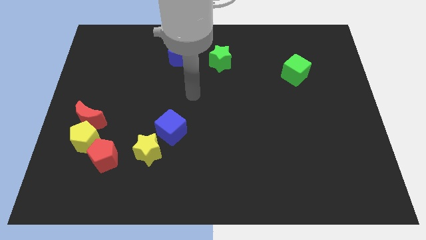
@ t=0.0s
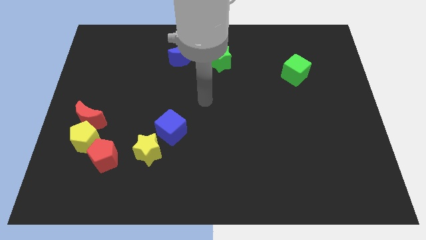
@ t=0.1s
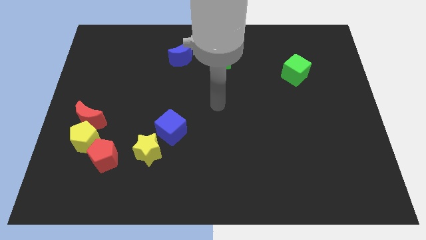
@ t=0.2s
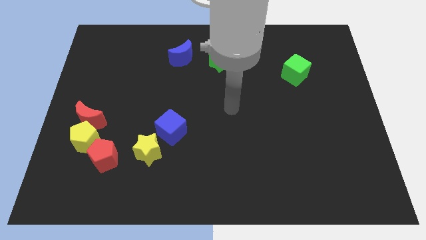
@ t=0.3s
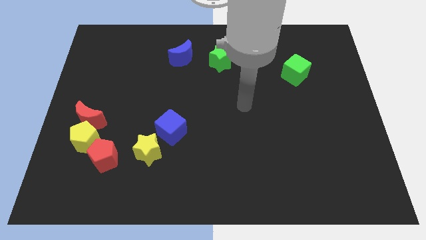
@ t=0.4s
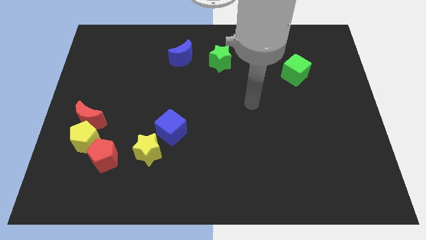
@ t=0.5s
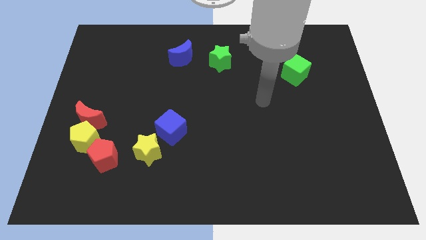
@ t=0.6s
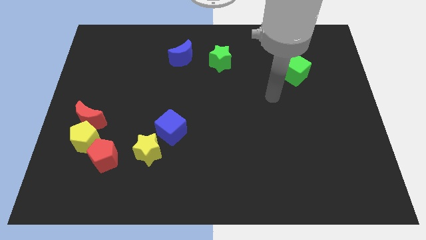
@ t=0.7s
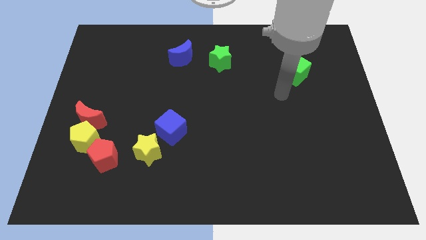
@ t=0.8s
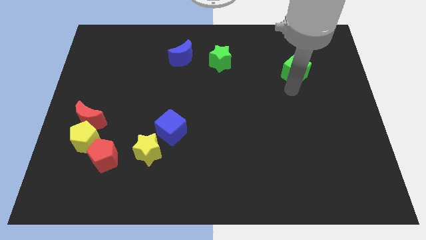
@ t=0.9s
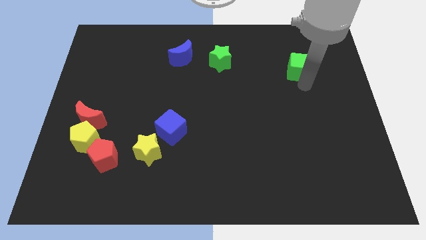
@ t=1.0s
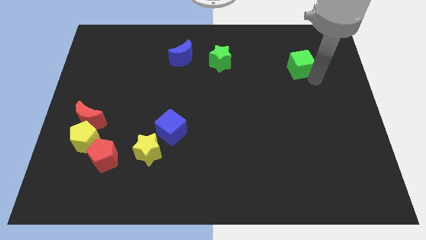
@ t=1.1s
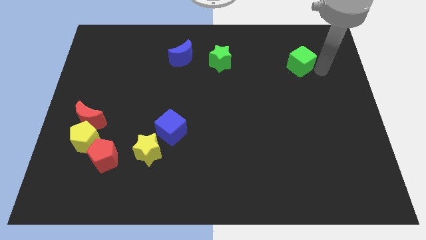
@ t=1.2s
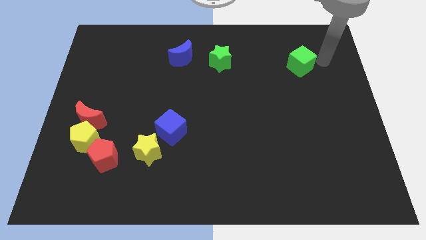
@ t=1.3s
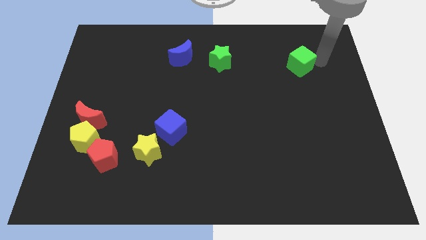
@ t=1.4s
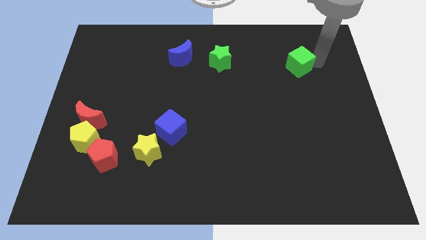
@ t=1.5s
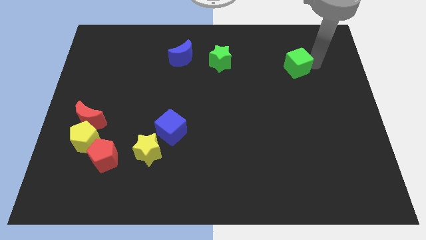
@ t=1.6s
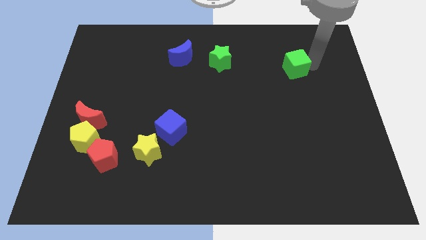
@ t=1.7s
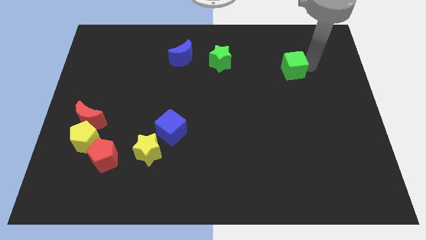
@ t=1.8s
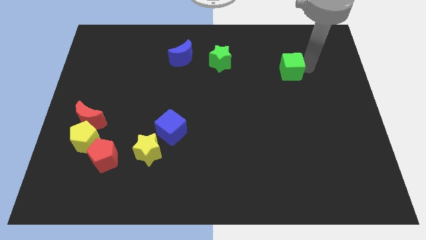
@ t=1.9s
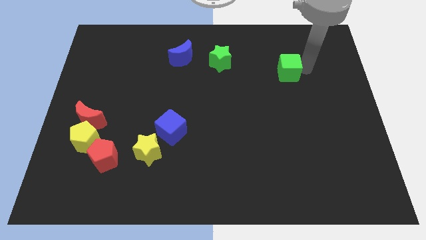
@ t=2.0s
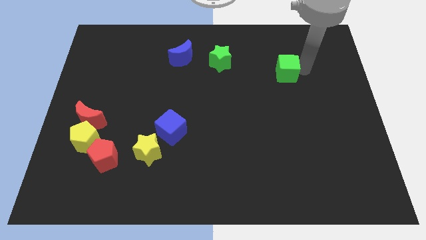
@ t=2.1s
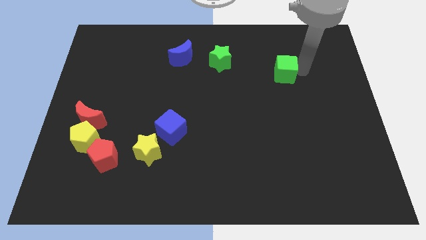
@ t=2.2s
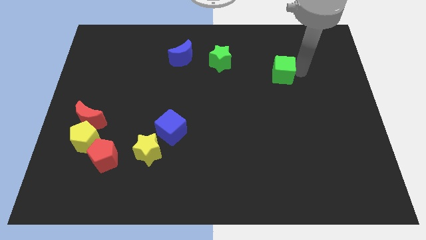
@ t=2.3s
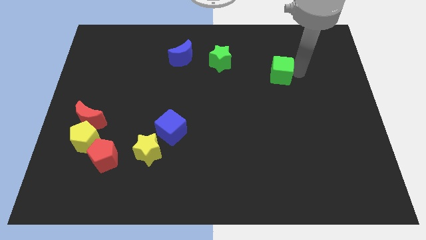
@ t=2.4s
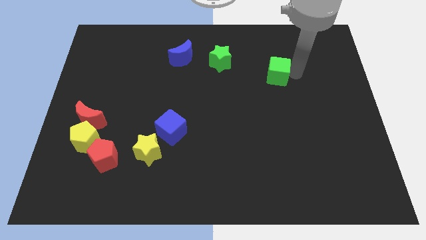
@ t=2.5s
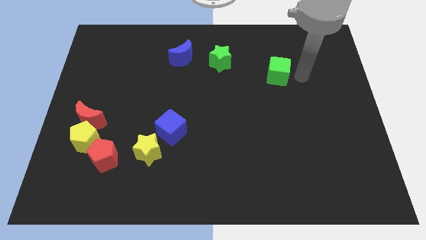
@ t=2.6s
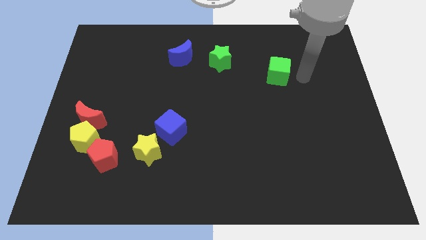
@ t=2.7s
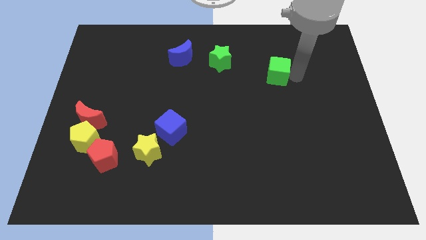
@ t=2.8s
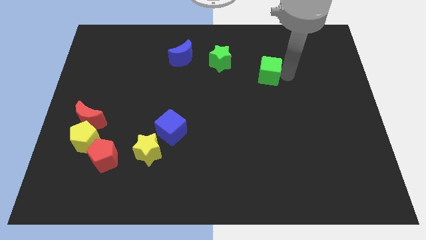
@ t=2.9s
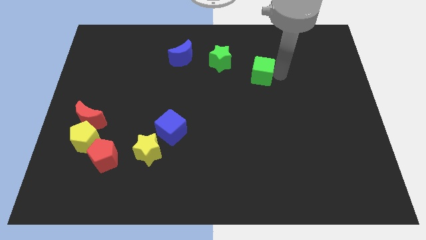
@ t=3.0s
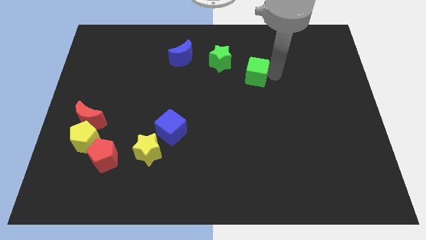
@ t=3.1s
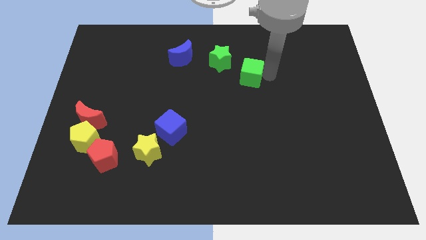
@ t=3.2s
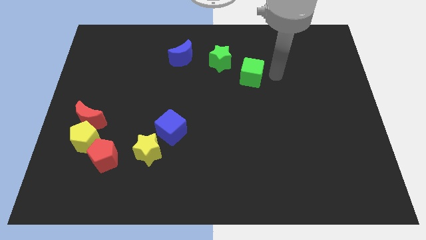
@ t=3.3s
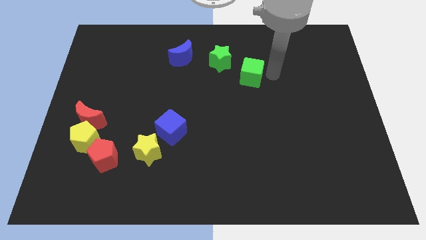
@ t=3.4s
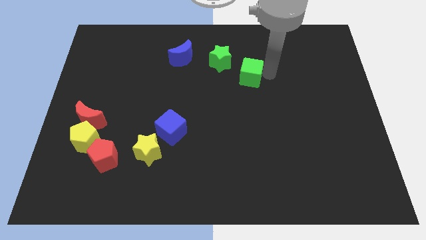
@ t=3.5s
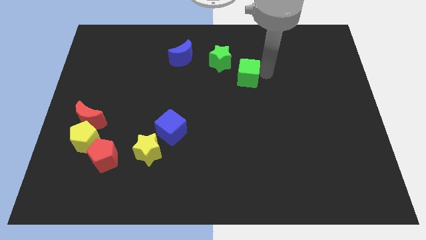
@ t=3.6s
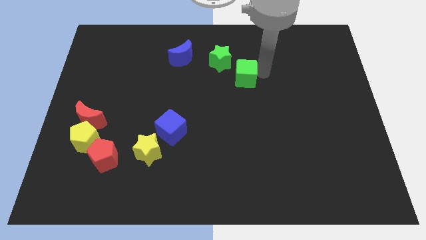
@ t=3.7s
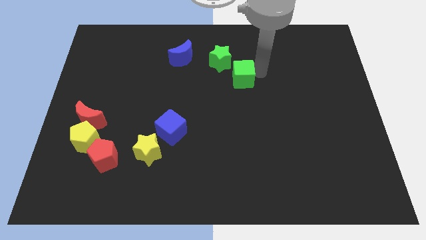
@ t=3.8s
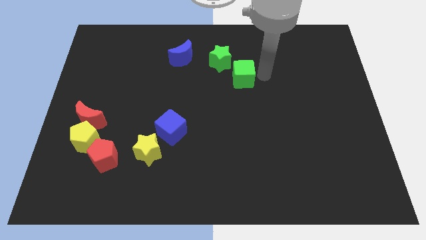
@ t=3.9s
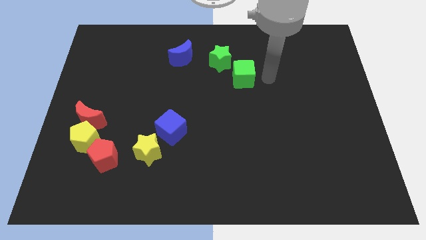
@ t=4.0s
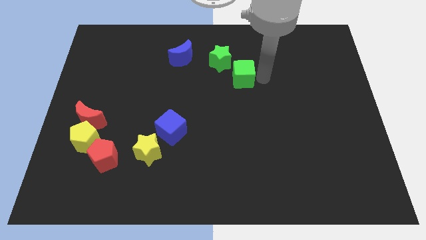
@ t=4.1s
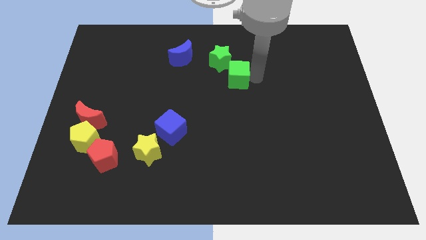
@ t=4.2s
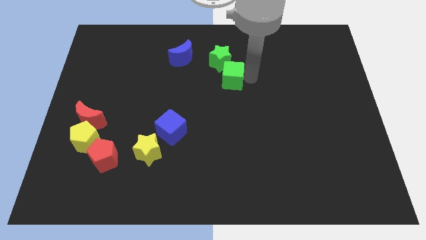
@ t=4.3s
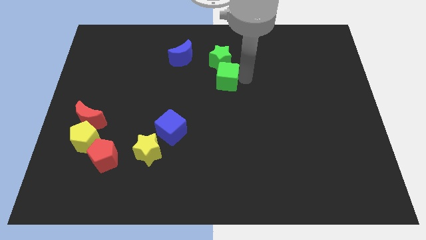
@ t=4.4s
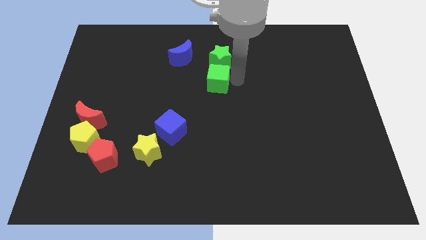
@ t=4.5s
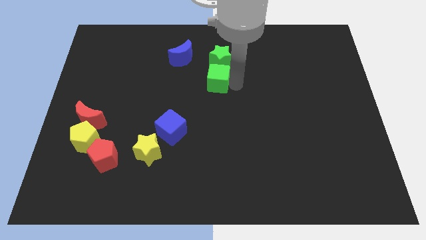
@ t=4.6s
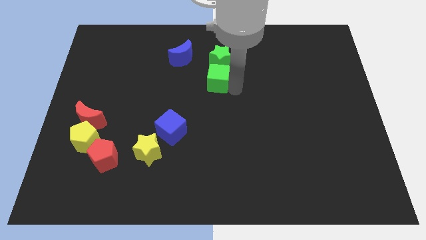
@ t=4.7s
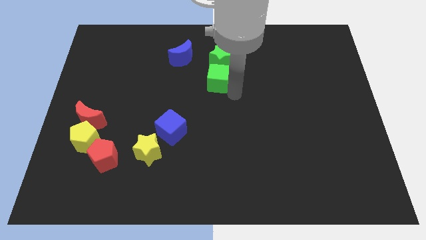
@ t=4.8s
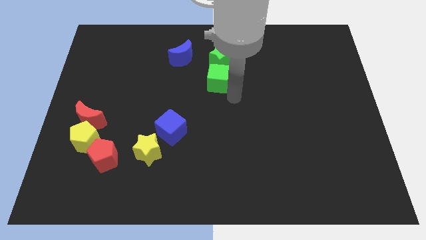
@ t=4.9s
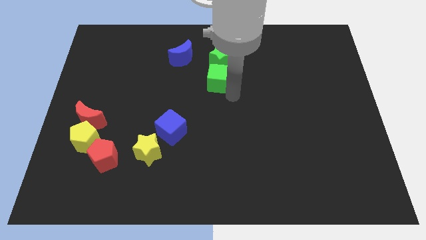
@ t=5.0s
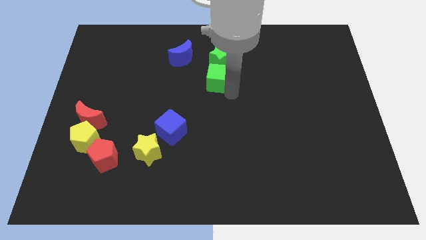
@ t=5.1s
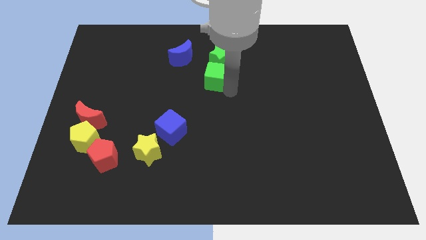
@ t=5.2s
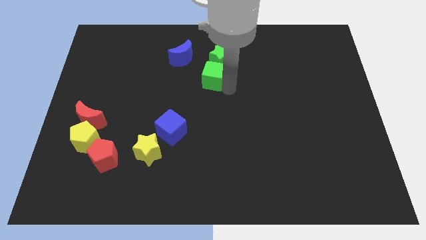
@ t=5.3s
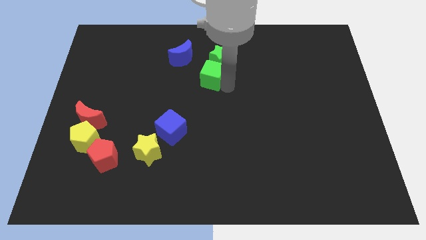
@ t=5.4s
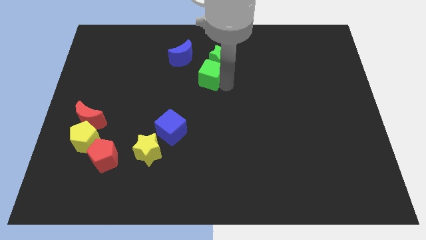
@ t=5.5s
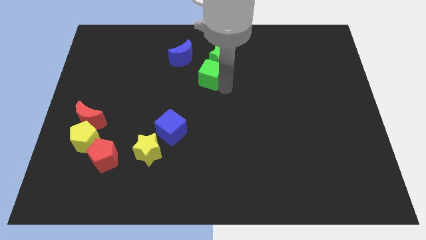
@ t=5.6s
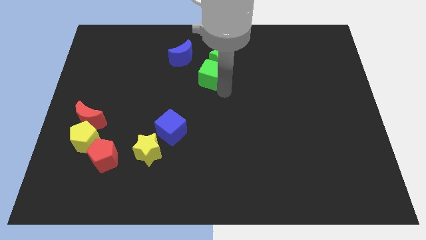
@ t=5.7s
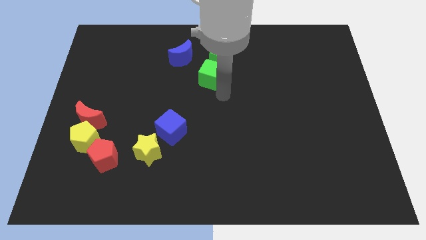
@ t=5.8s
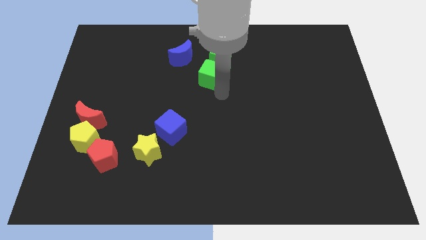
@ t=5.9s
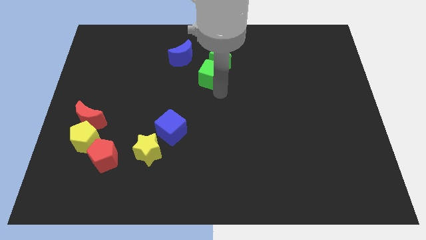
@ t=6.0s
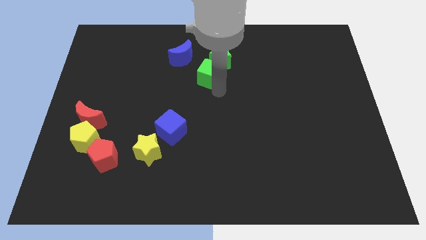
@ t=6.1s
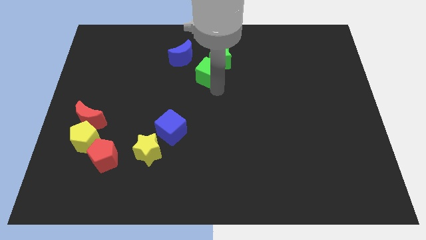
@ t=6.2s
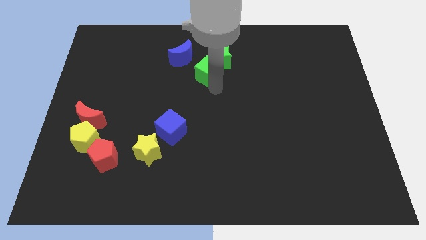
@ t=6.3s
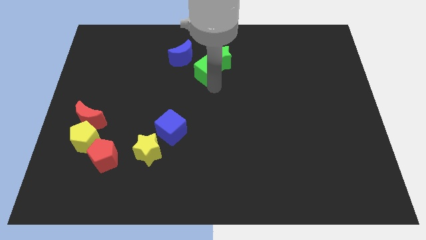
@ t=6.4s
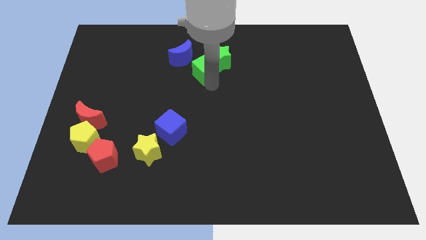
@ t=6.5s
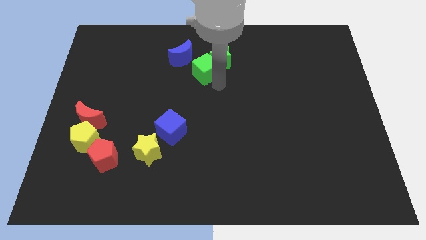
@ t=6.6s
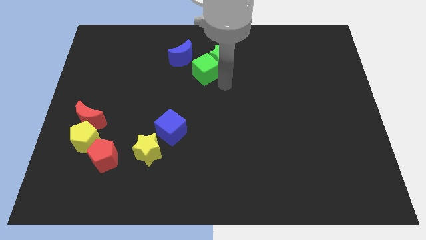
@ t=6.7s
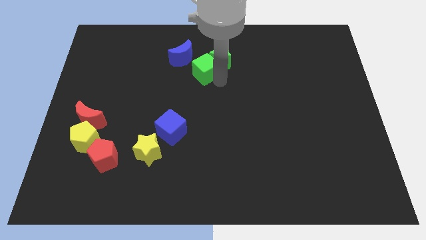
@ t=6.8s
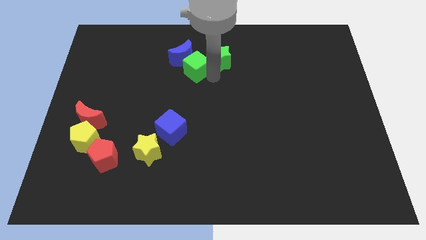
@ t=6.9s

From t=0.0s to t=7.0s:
put the green cube towards the blue moon
